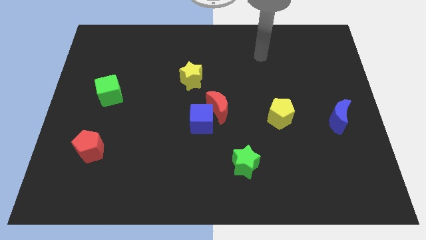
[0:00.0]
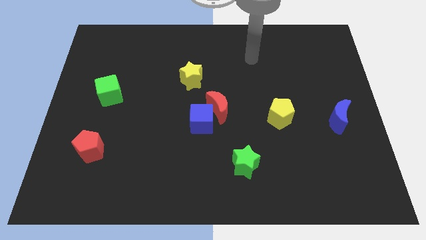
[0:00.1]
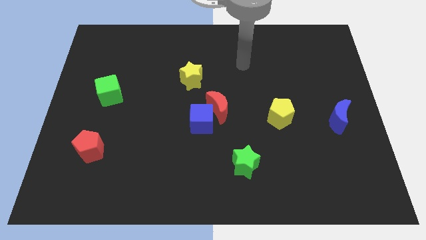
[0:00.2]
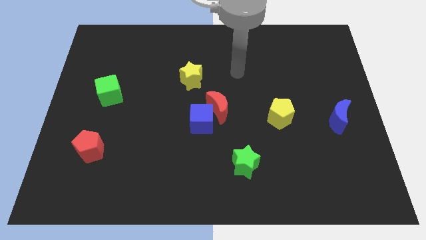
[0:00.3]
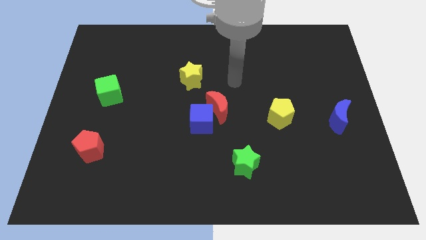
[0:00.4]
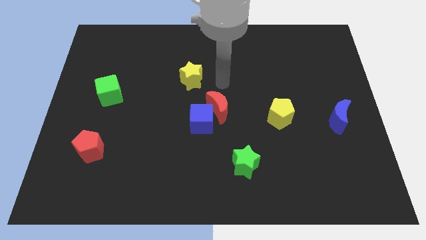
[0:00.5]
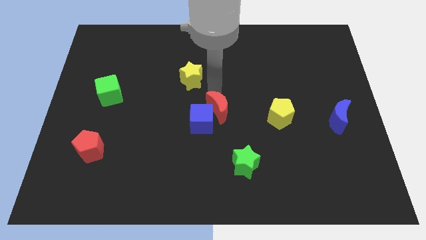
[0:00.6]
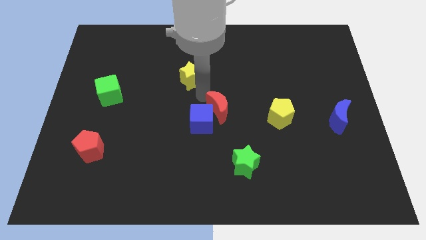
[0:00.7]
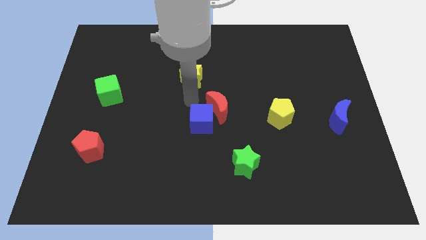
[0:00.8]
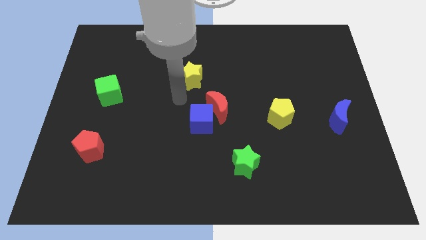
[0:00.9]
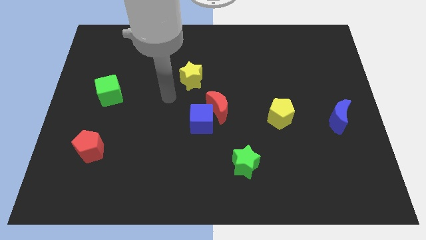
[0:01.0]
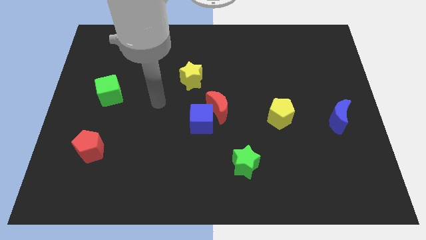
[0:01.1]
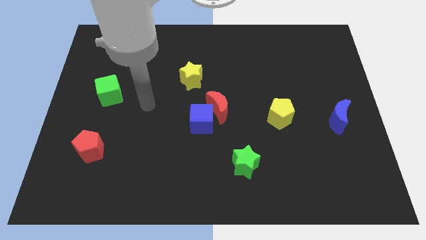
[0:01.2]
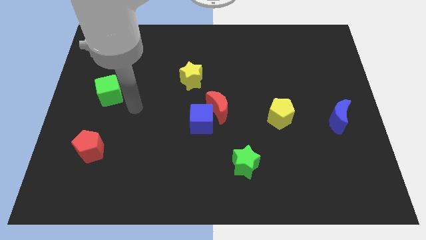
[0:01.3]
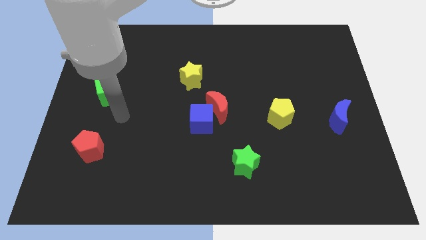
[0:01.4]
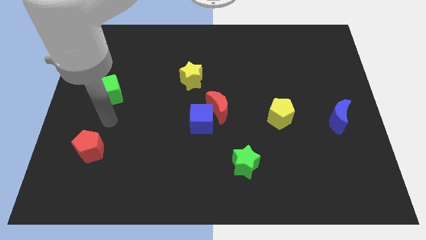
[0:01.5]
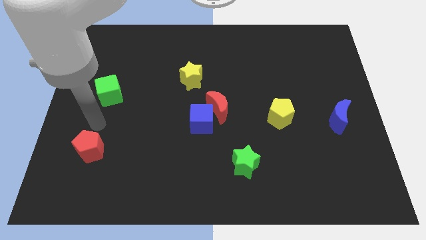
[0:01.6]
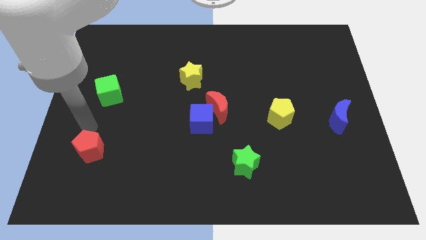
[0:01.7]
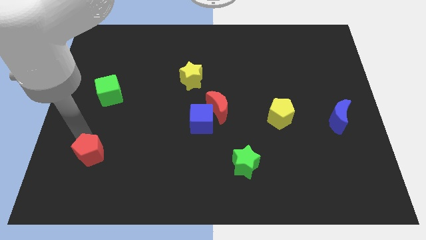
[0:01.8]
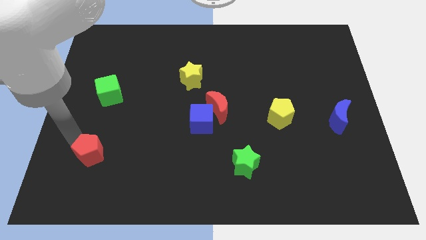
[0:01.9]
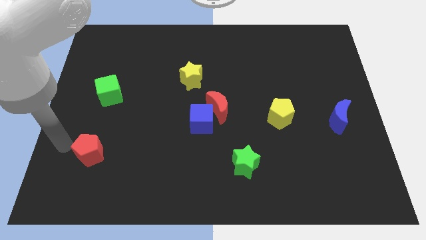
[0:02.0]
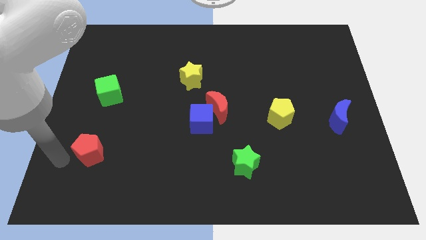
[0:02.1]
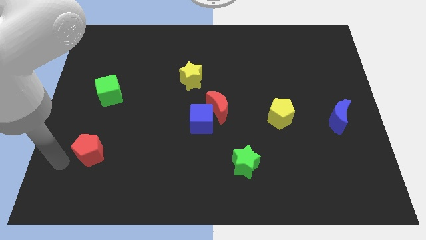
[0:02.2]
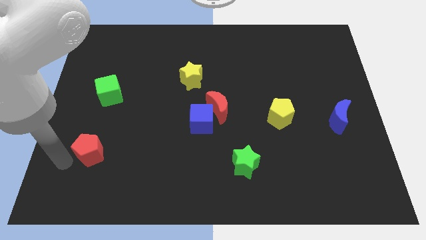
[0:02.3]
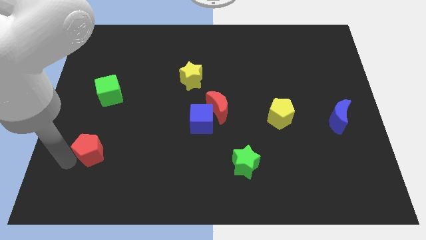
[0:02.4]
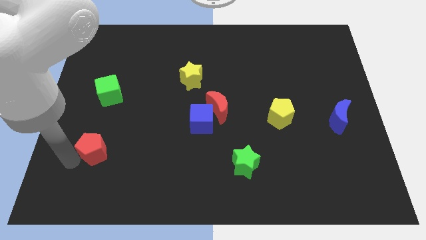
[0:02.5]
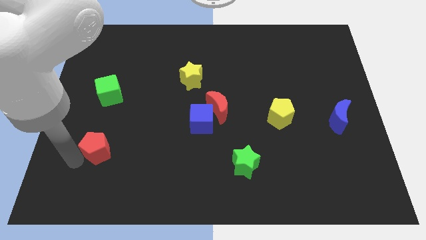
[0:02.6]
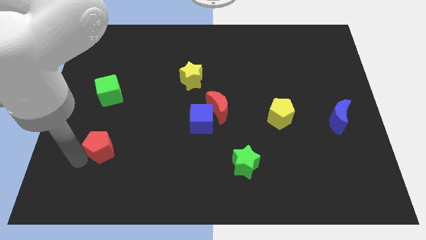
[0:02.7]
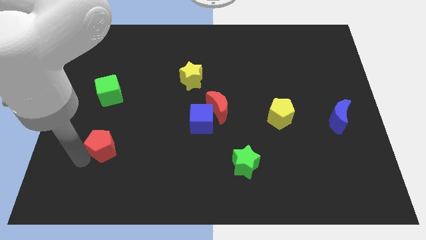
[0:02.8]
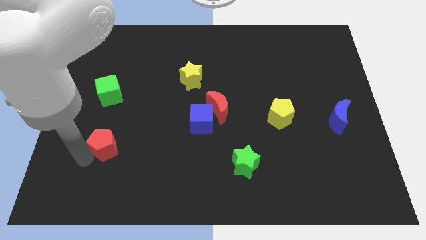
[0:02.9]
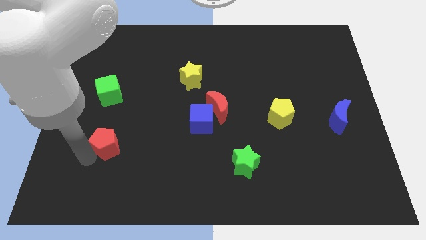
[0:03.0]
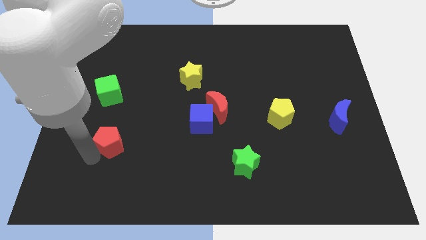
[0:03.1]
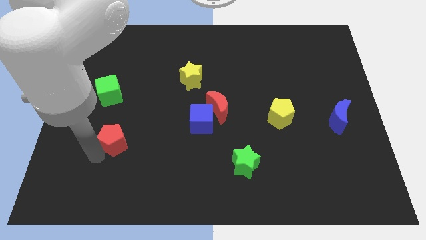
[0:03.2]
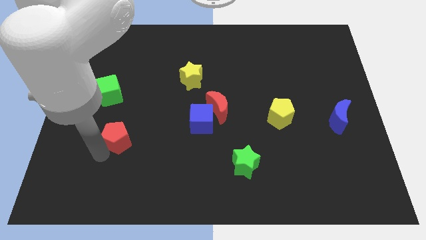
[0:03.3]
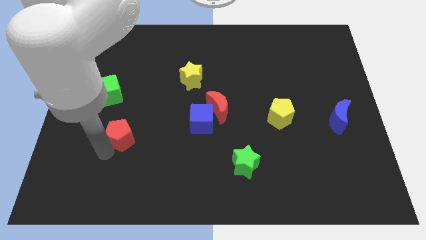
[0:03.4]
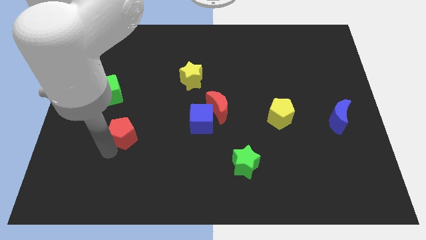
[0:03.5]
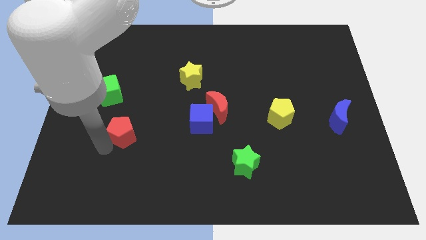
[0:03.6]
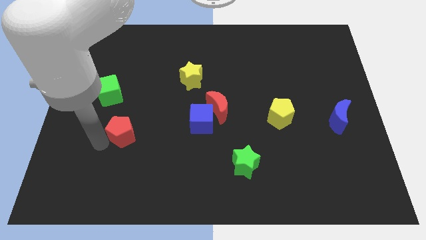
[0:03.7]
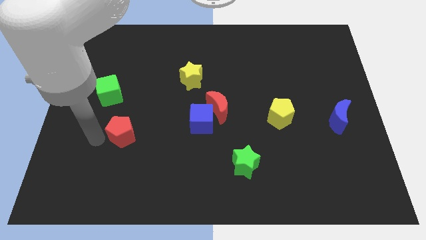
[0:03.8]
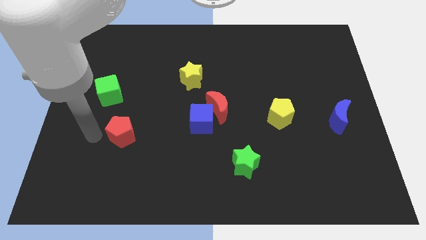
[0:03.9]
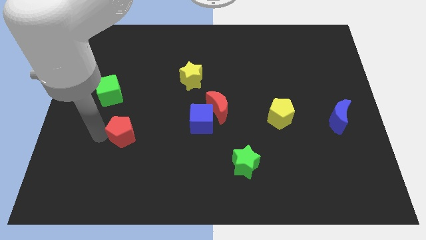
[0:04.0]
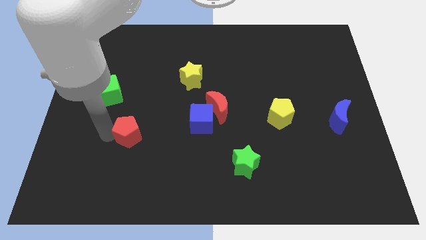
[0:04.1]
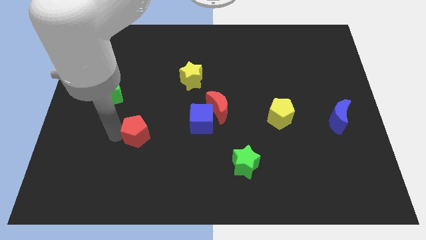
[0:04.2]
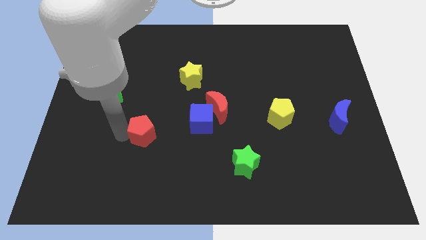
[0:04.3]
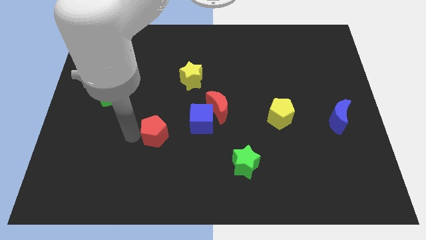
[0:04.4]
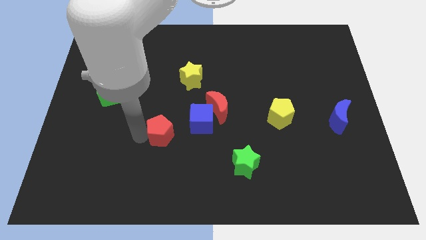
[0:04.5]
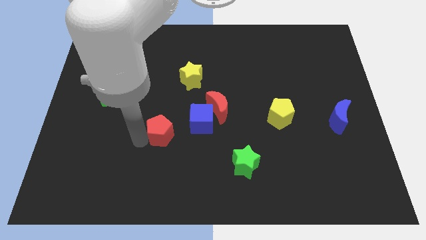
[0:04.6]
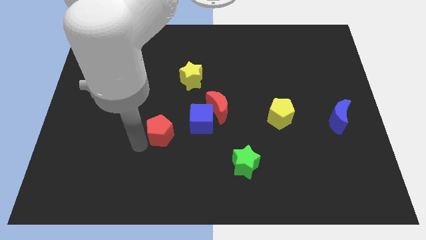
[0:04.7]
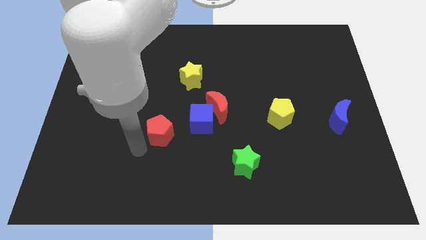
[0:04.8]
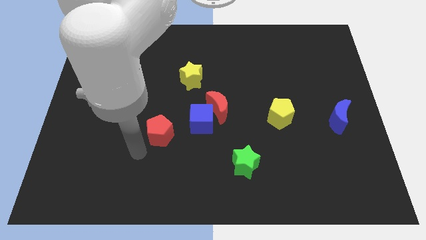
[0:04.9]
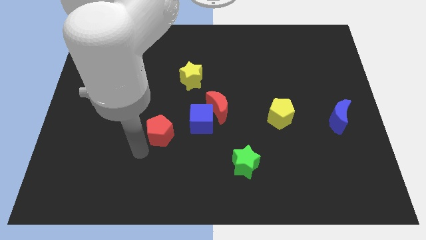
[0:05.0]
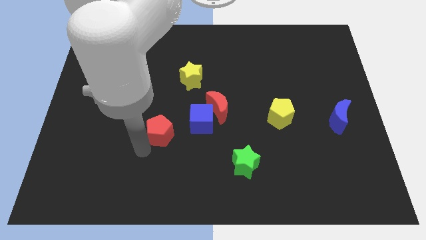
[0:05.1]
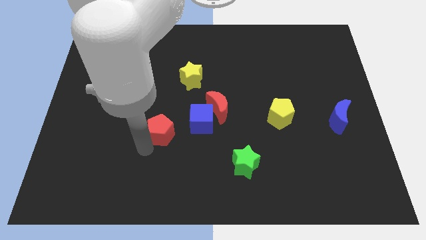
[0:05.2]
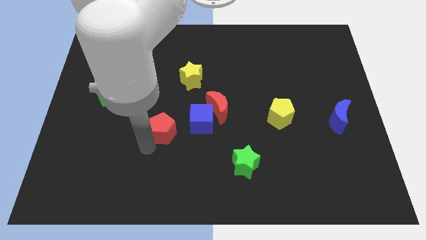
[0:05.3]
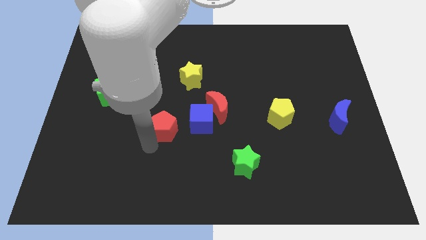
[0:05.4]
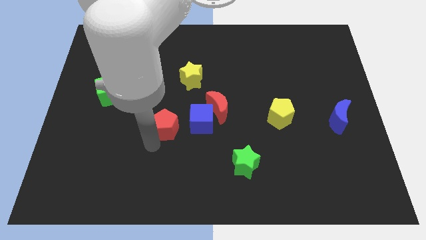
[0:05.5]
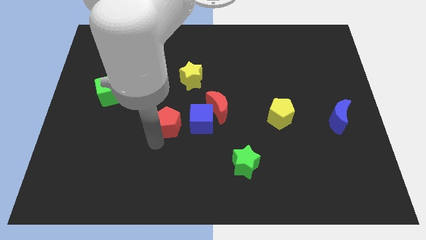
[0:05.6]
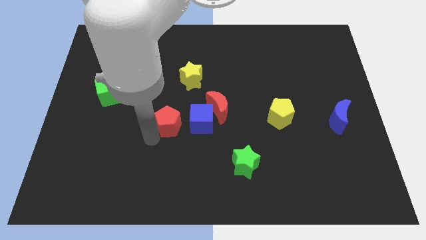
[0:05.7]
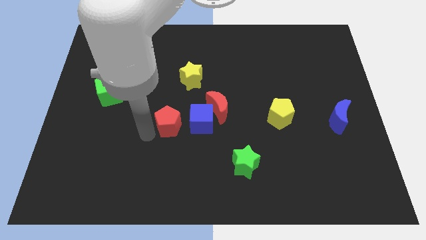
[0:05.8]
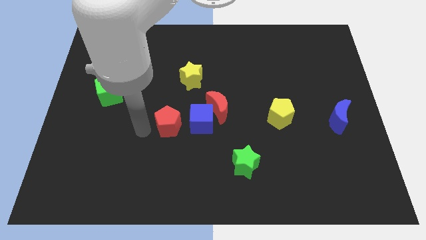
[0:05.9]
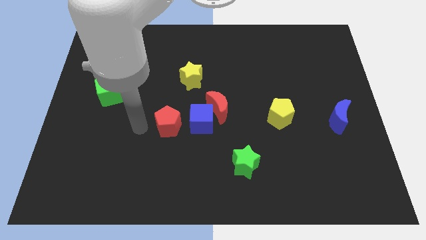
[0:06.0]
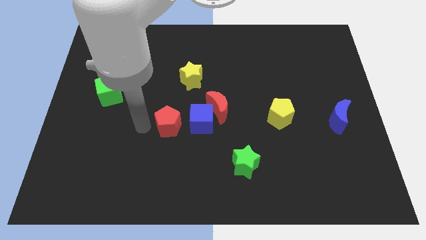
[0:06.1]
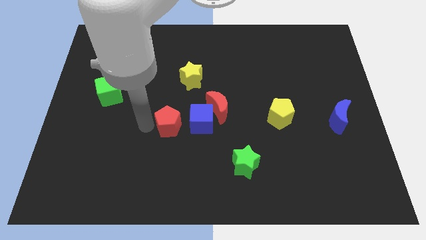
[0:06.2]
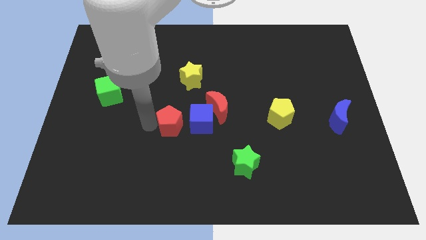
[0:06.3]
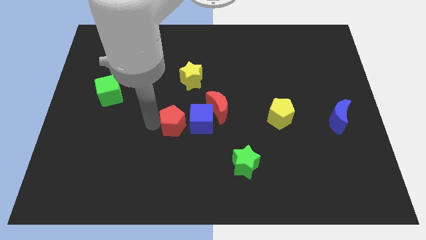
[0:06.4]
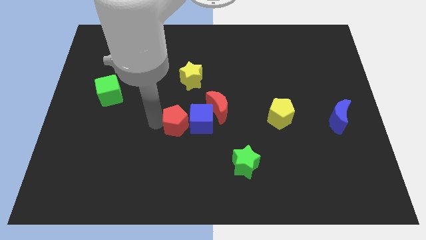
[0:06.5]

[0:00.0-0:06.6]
move the red pentagon to the blue cube

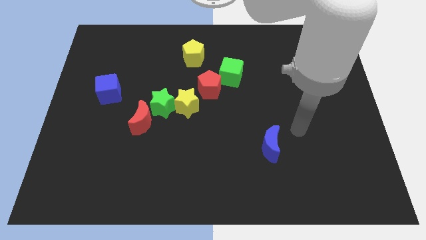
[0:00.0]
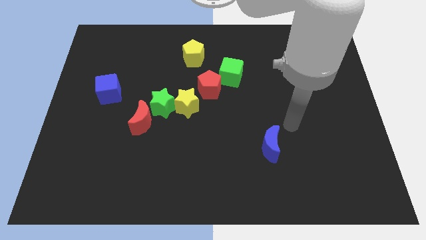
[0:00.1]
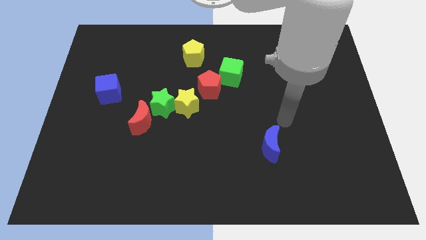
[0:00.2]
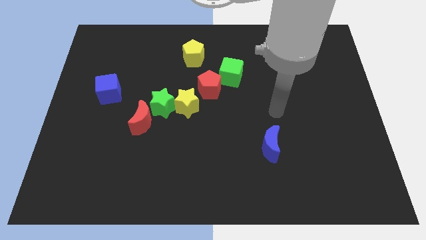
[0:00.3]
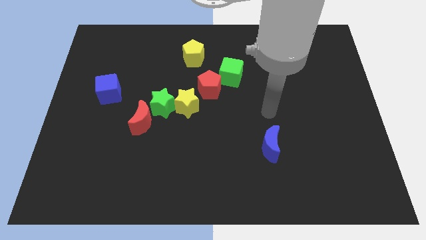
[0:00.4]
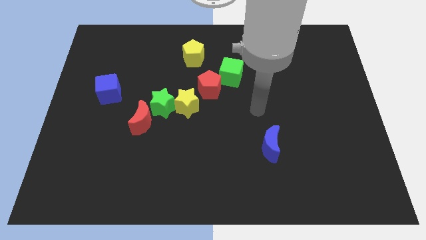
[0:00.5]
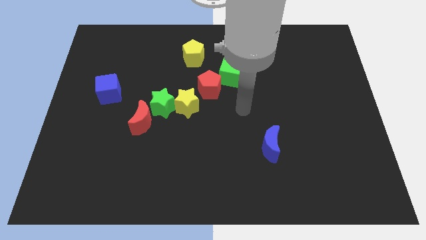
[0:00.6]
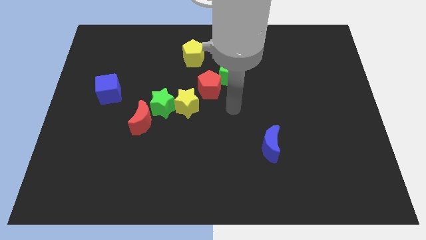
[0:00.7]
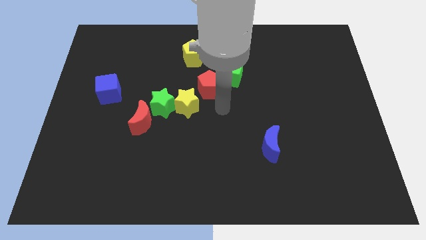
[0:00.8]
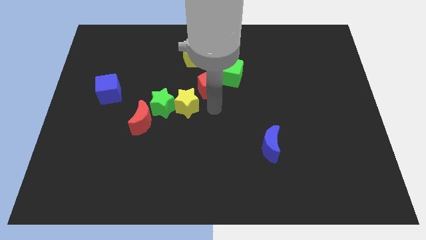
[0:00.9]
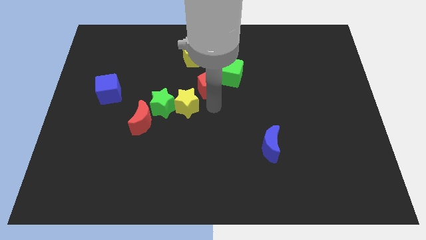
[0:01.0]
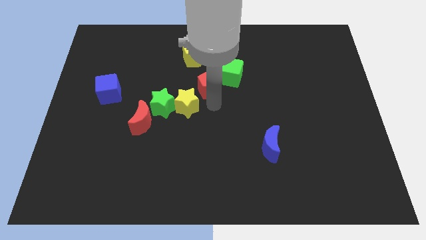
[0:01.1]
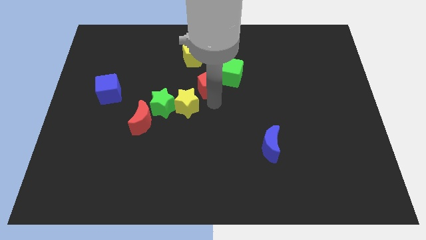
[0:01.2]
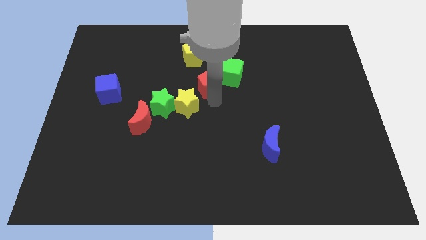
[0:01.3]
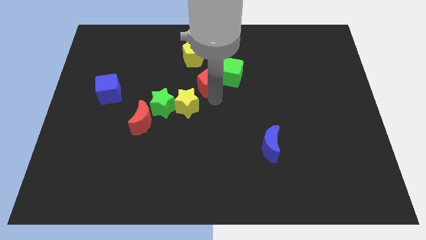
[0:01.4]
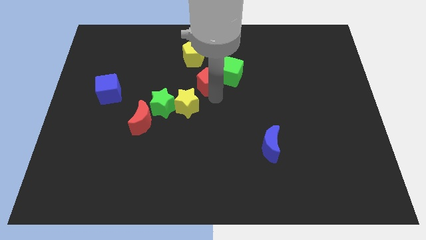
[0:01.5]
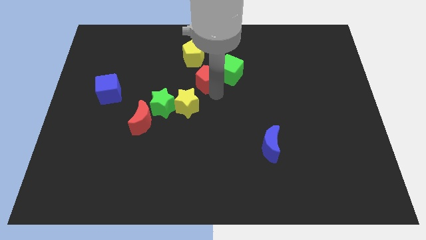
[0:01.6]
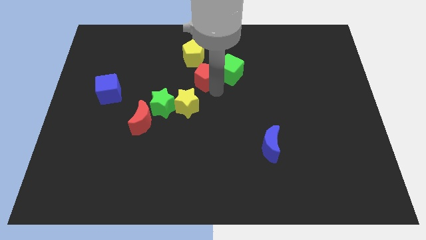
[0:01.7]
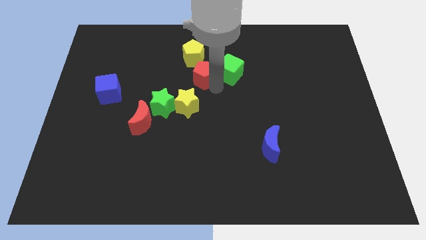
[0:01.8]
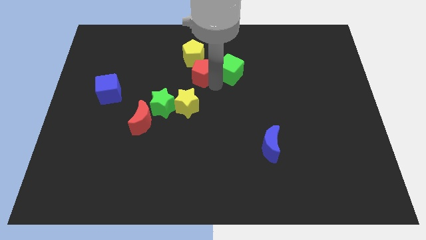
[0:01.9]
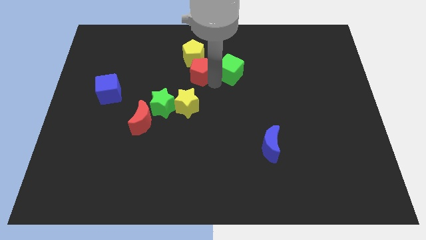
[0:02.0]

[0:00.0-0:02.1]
put the red pentagon next to the yellow pentagon
